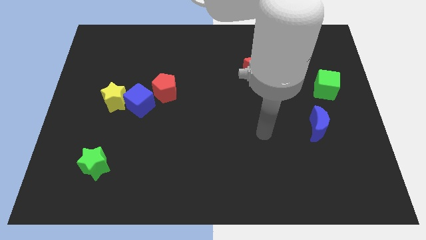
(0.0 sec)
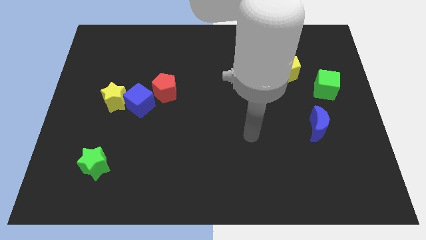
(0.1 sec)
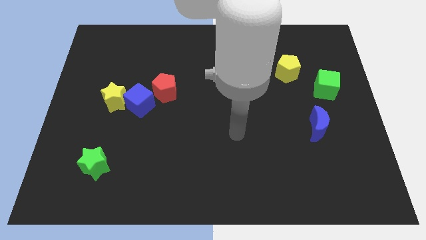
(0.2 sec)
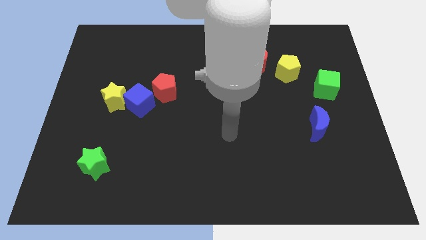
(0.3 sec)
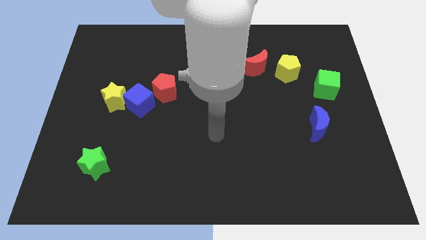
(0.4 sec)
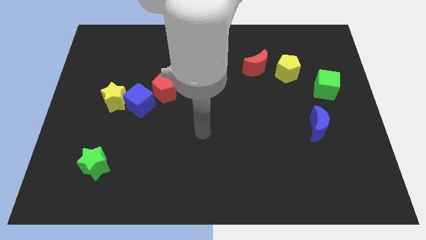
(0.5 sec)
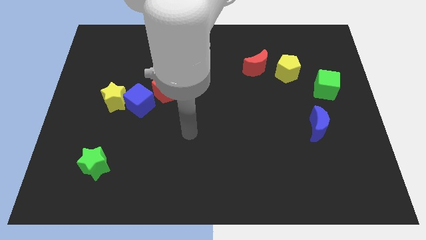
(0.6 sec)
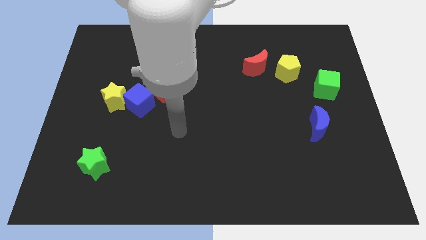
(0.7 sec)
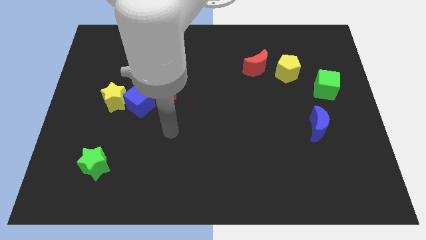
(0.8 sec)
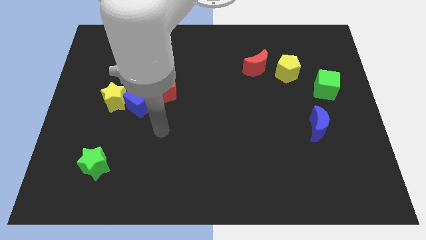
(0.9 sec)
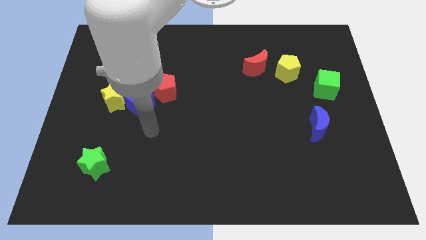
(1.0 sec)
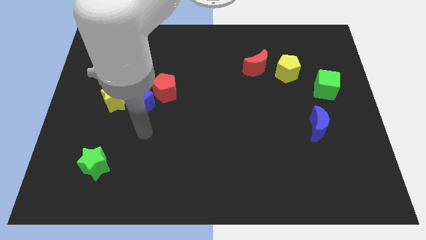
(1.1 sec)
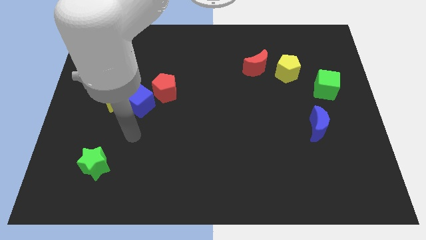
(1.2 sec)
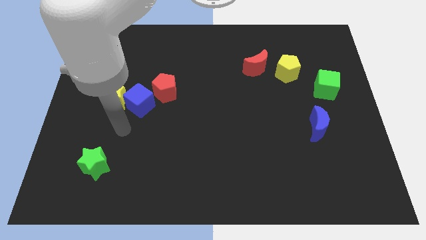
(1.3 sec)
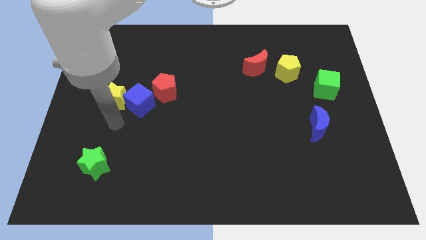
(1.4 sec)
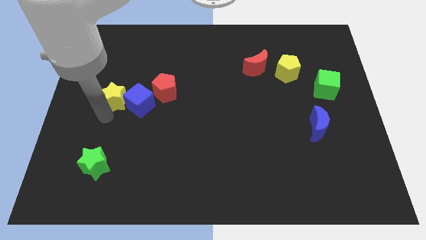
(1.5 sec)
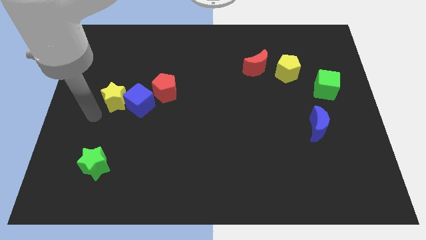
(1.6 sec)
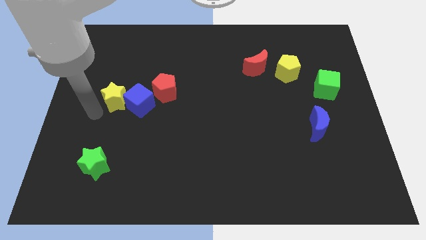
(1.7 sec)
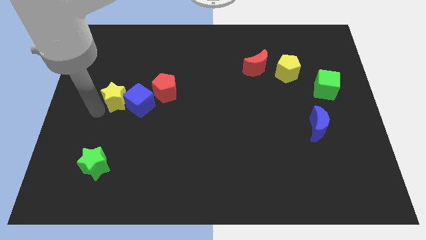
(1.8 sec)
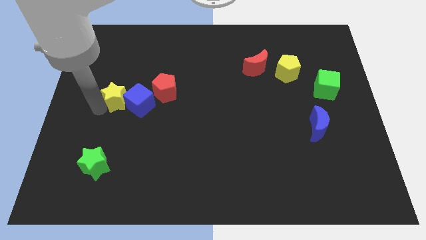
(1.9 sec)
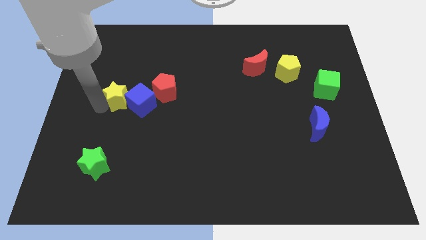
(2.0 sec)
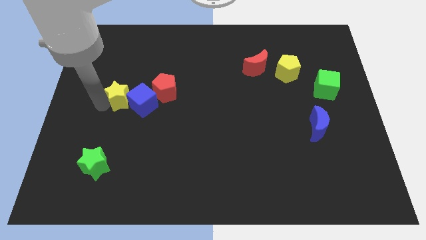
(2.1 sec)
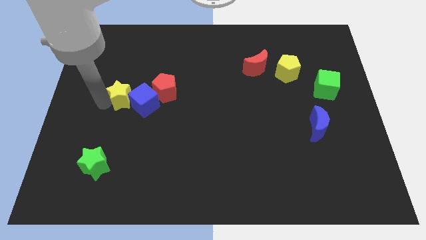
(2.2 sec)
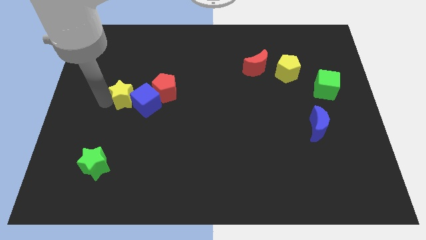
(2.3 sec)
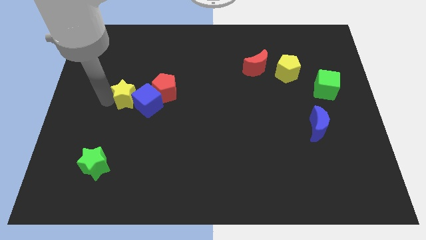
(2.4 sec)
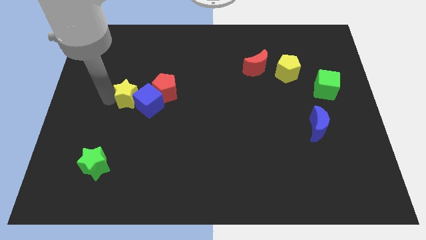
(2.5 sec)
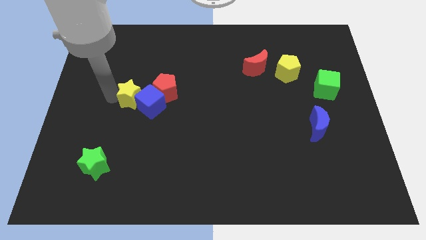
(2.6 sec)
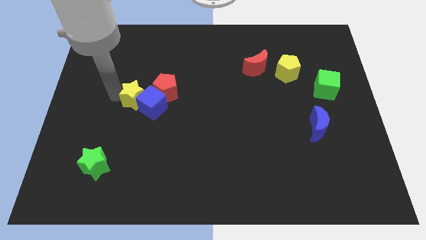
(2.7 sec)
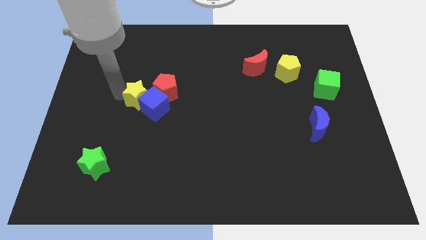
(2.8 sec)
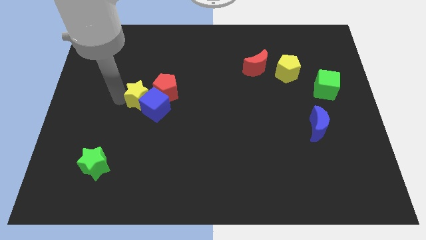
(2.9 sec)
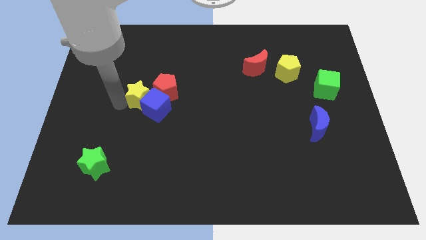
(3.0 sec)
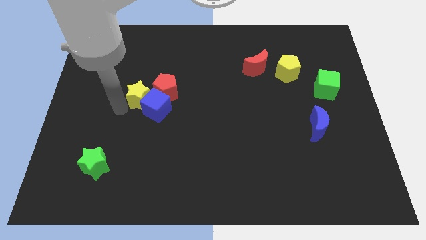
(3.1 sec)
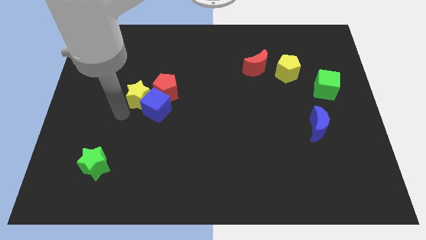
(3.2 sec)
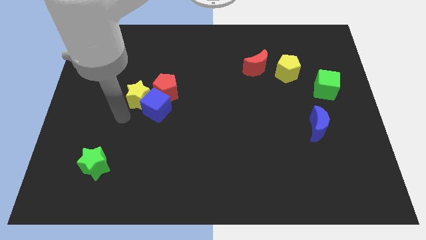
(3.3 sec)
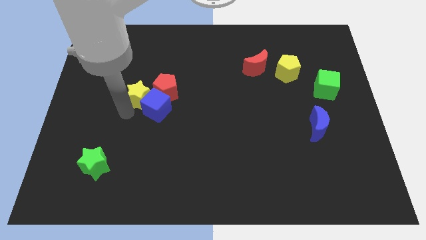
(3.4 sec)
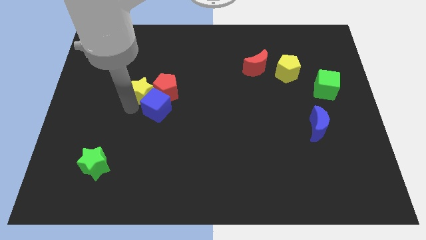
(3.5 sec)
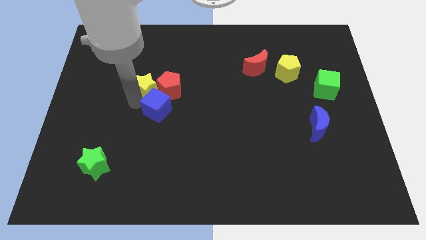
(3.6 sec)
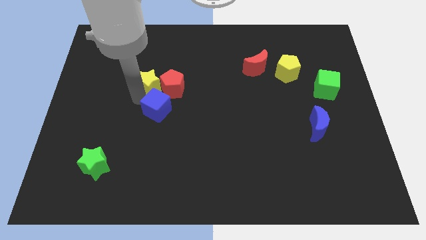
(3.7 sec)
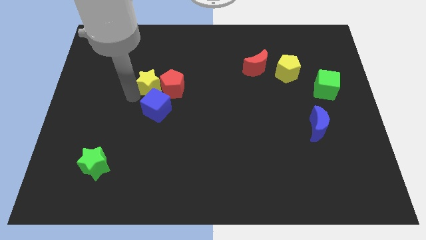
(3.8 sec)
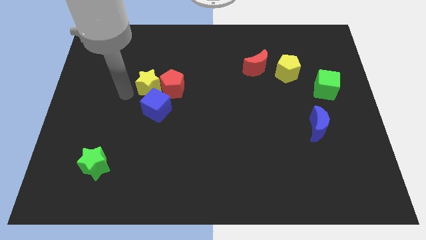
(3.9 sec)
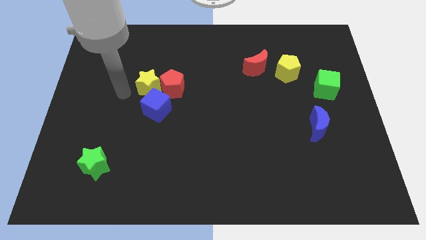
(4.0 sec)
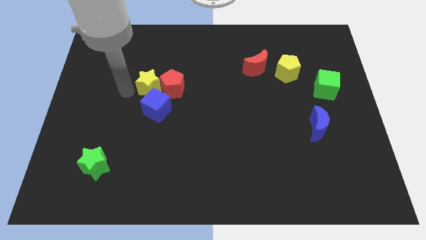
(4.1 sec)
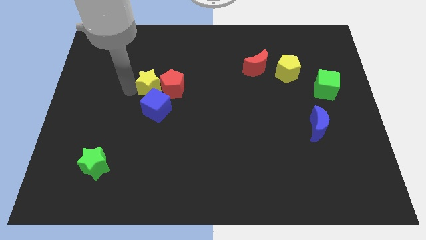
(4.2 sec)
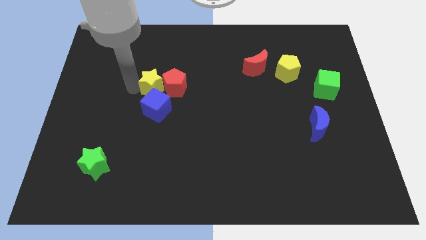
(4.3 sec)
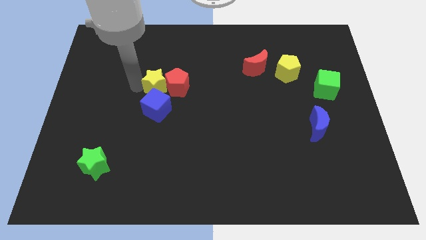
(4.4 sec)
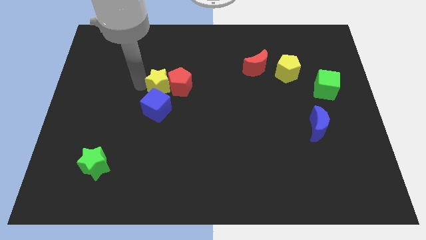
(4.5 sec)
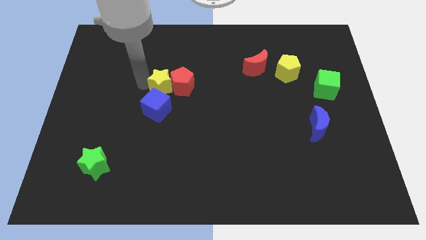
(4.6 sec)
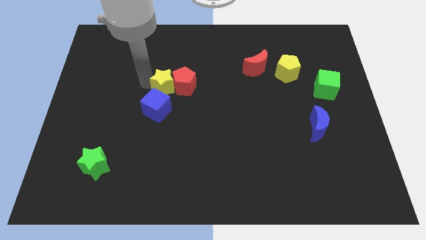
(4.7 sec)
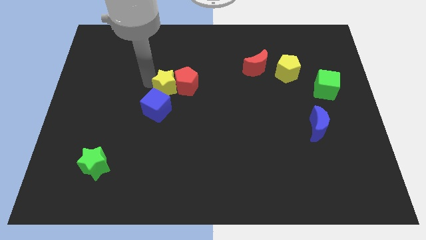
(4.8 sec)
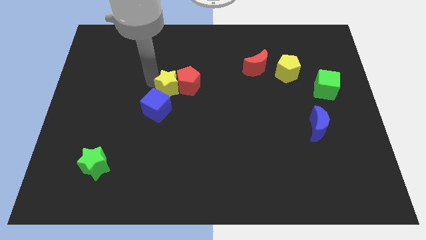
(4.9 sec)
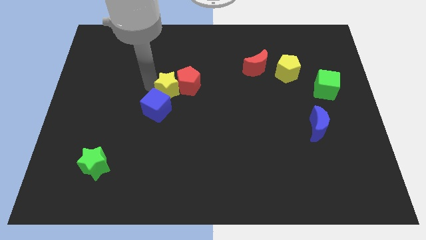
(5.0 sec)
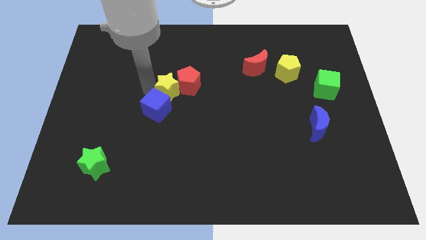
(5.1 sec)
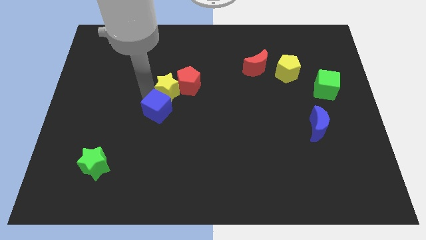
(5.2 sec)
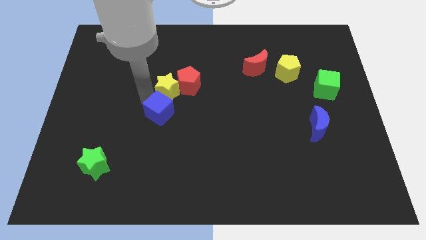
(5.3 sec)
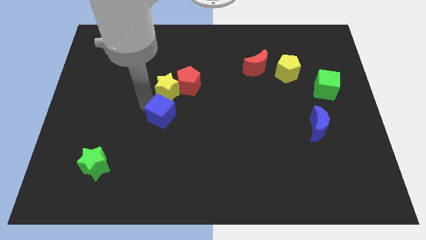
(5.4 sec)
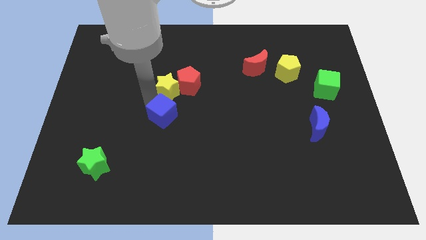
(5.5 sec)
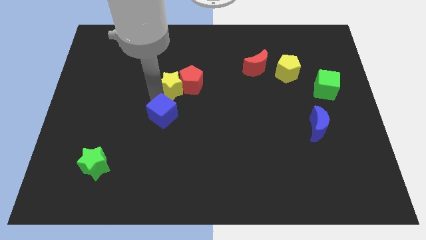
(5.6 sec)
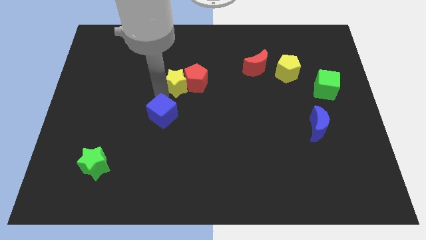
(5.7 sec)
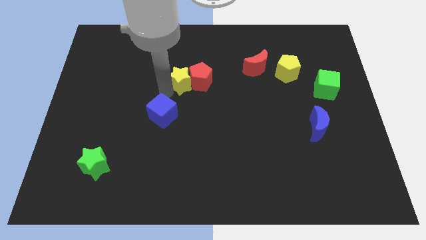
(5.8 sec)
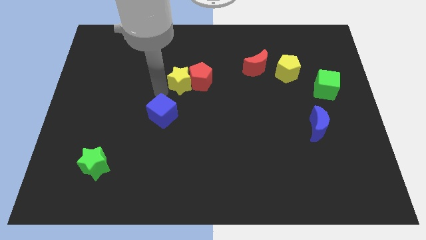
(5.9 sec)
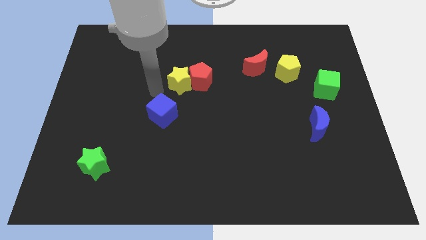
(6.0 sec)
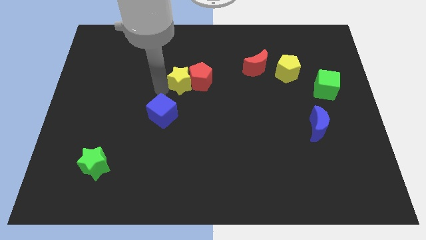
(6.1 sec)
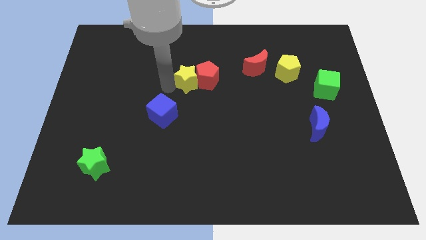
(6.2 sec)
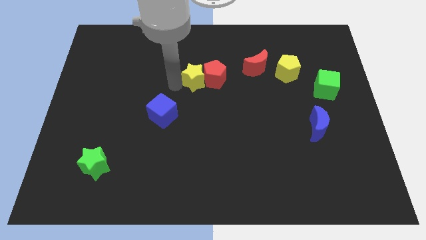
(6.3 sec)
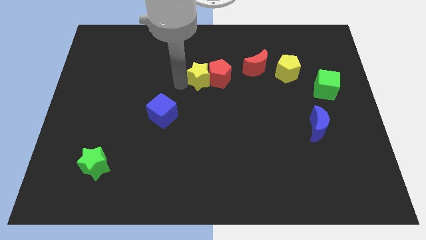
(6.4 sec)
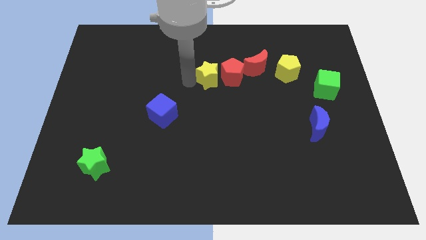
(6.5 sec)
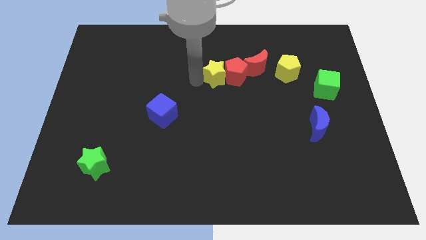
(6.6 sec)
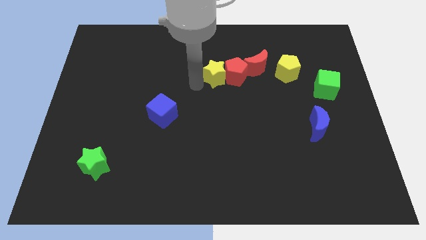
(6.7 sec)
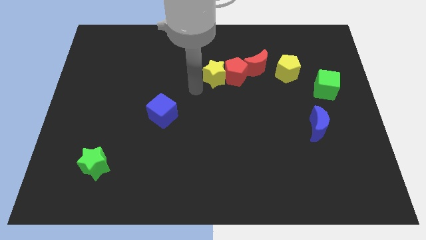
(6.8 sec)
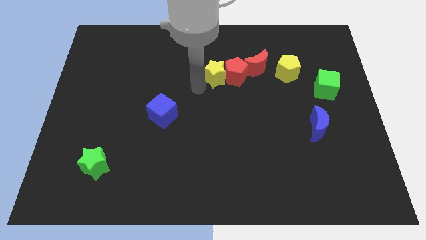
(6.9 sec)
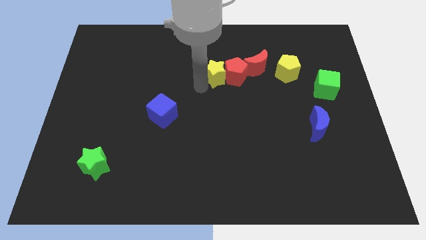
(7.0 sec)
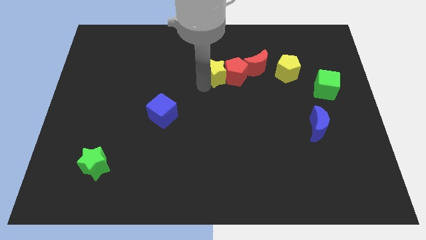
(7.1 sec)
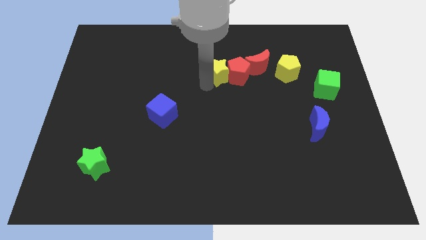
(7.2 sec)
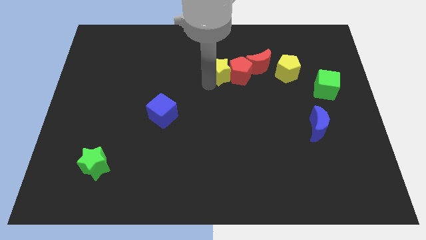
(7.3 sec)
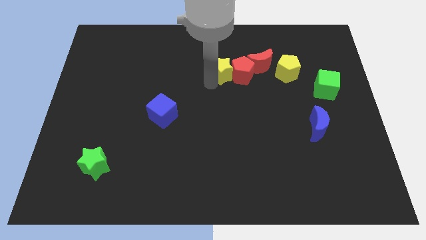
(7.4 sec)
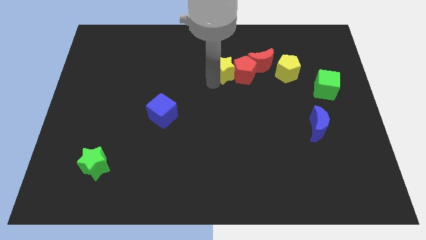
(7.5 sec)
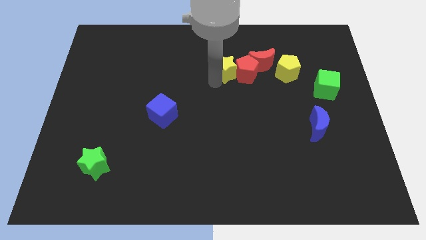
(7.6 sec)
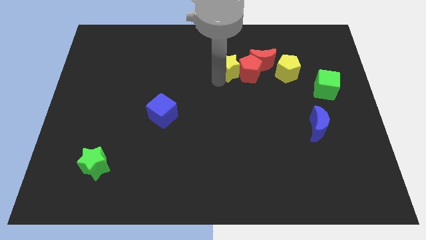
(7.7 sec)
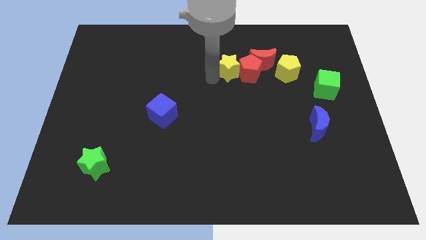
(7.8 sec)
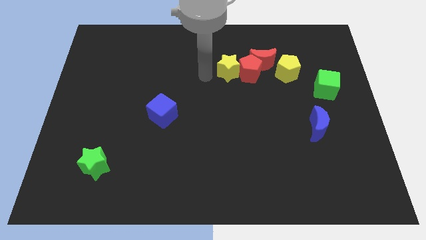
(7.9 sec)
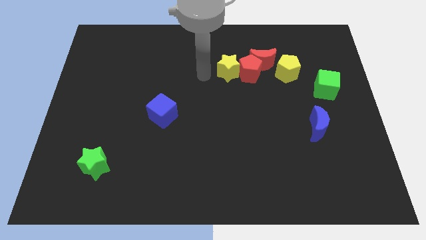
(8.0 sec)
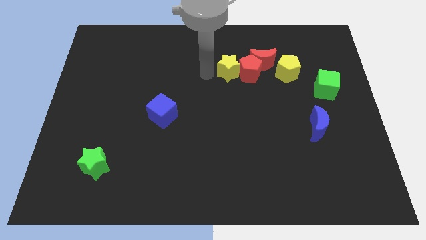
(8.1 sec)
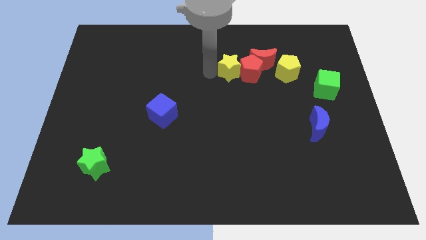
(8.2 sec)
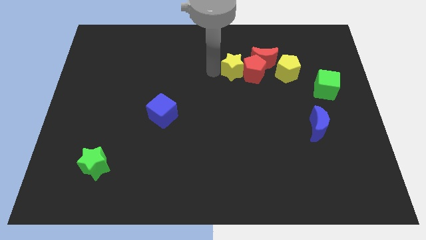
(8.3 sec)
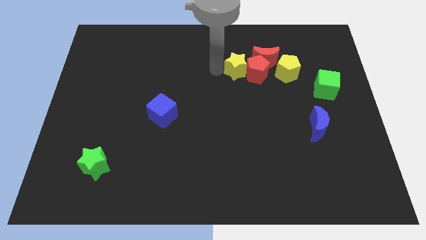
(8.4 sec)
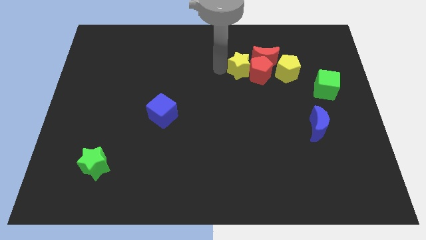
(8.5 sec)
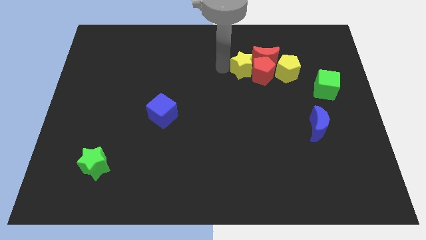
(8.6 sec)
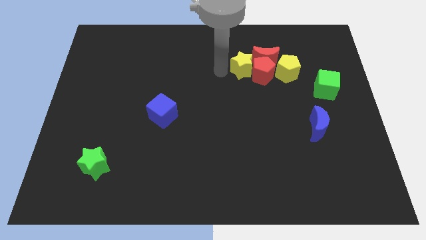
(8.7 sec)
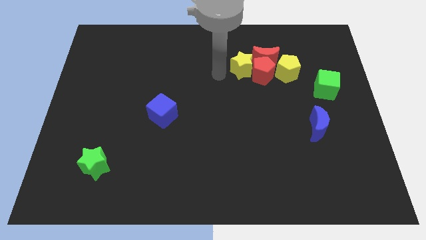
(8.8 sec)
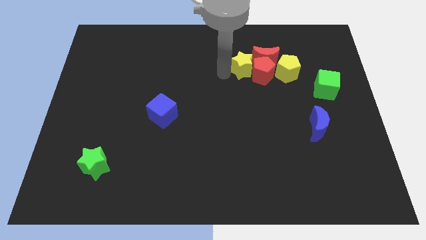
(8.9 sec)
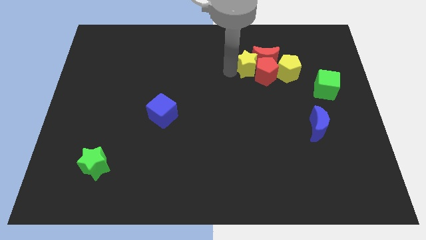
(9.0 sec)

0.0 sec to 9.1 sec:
push the yellow star towards the red moon
